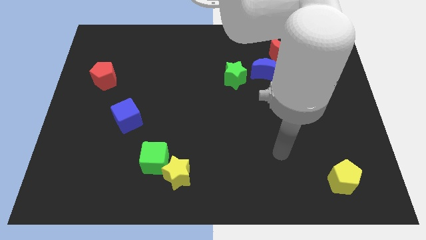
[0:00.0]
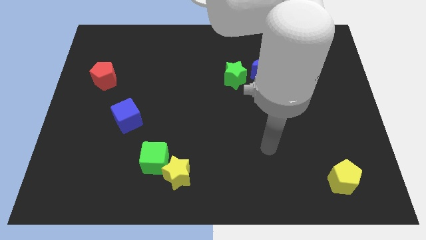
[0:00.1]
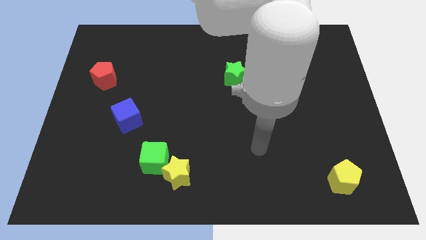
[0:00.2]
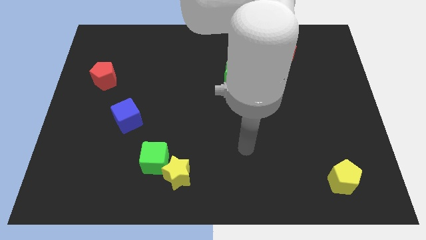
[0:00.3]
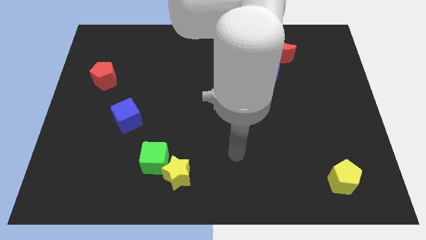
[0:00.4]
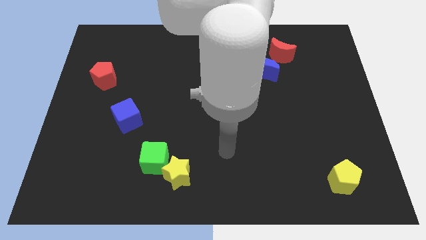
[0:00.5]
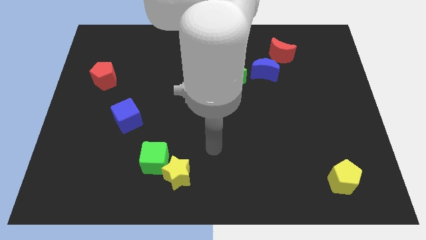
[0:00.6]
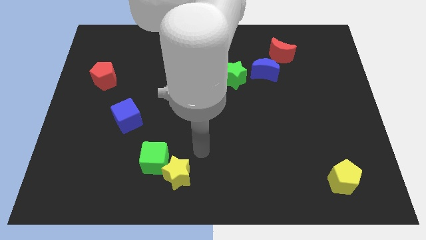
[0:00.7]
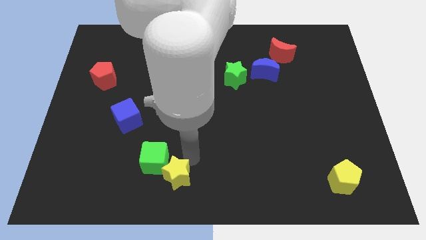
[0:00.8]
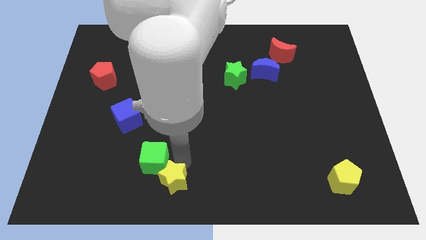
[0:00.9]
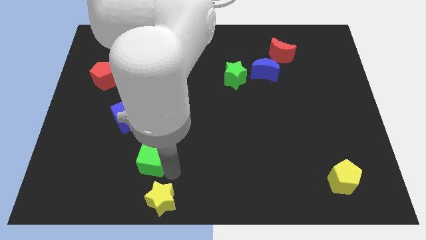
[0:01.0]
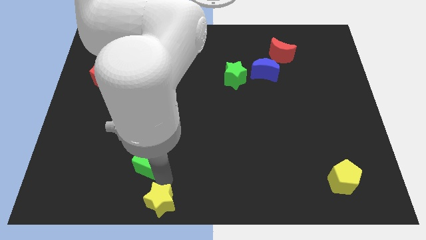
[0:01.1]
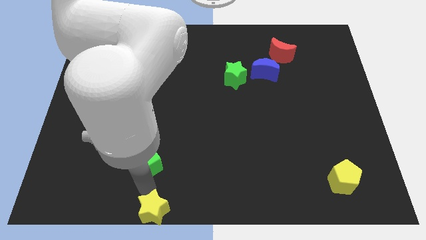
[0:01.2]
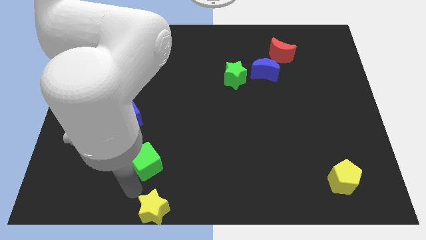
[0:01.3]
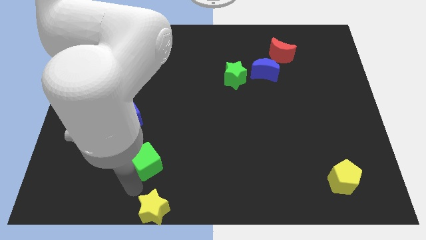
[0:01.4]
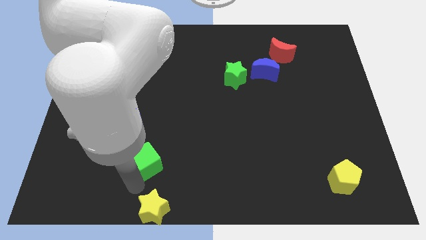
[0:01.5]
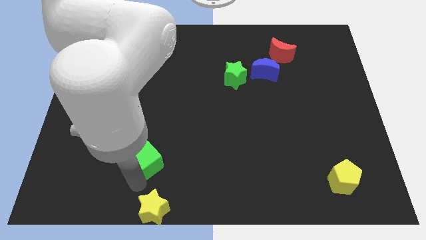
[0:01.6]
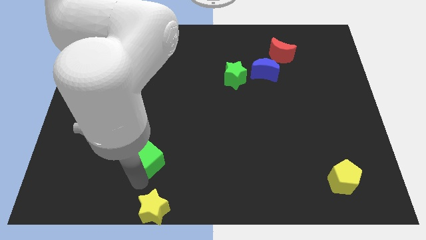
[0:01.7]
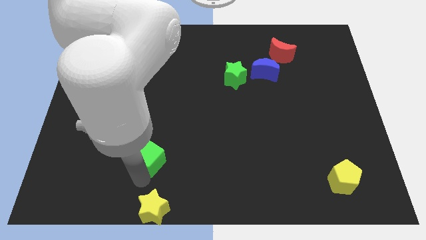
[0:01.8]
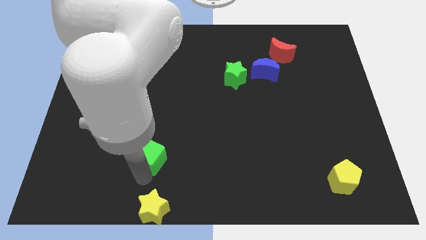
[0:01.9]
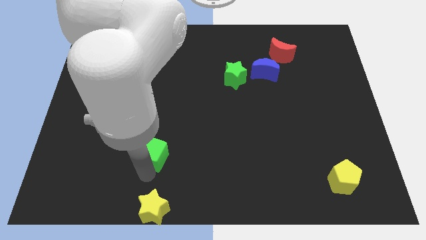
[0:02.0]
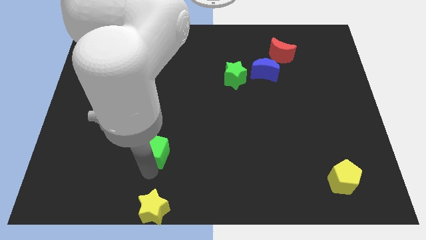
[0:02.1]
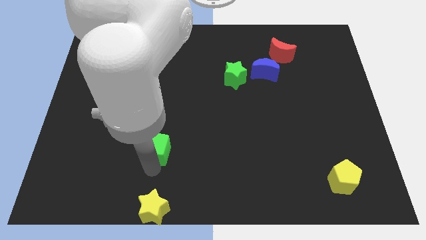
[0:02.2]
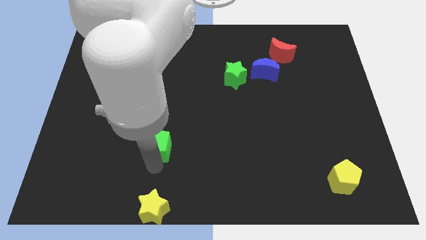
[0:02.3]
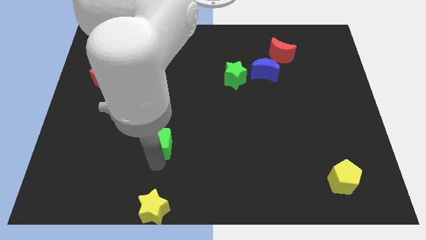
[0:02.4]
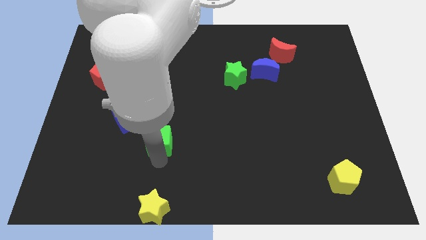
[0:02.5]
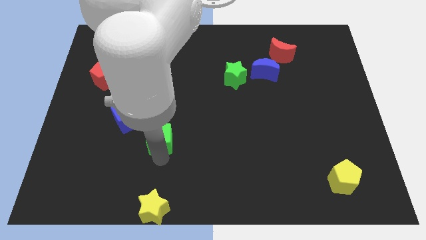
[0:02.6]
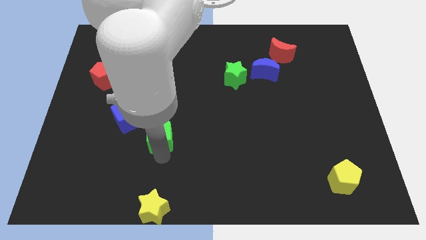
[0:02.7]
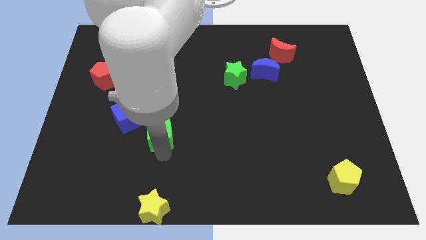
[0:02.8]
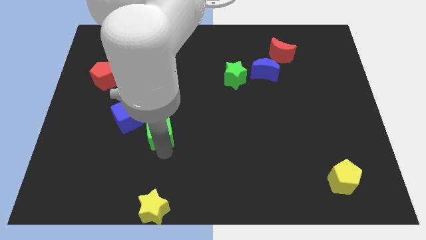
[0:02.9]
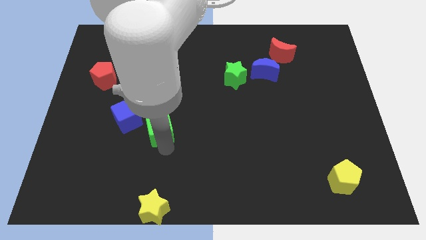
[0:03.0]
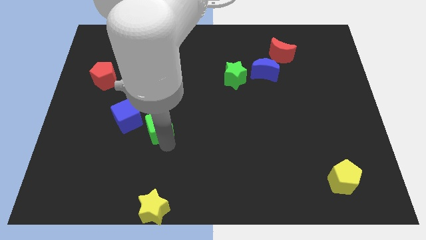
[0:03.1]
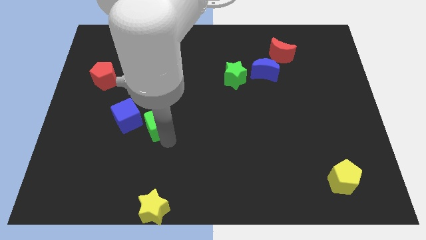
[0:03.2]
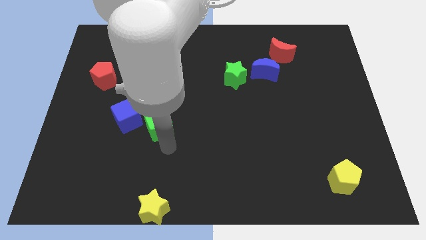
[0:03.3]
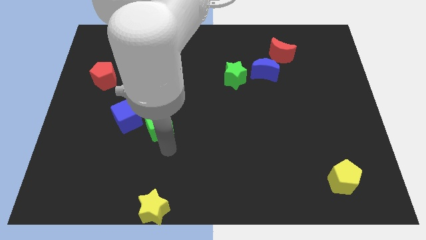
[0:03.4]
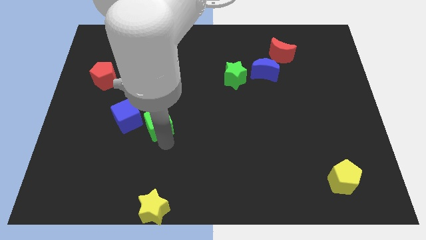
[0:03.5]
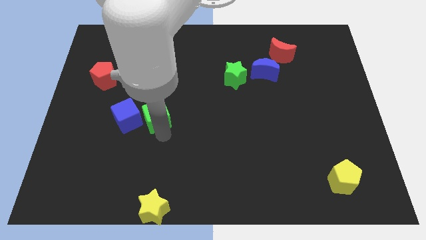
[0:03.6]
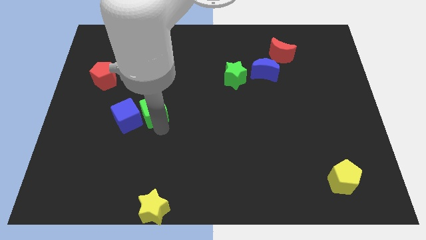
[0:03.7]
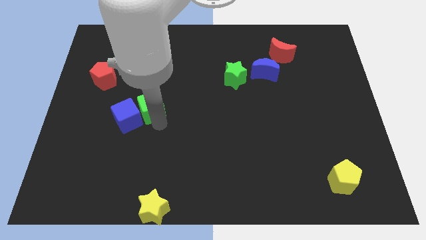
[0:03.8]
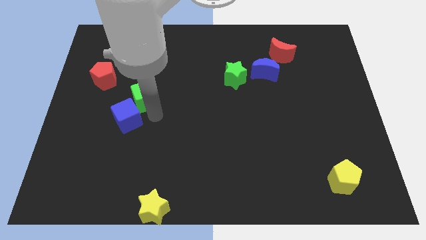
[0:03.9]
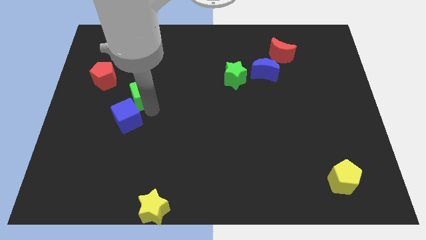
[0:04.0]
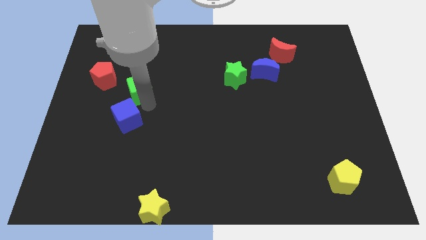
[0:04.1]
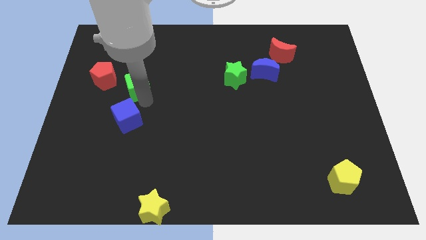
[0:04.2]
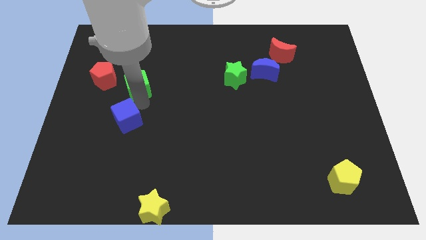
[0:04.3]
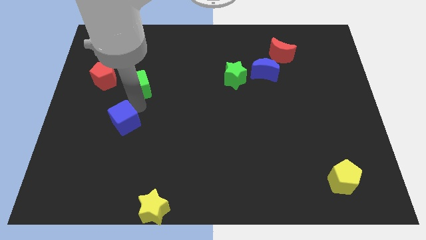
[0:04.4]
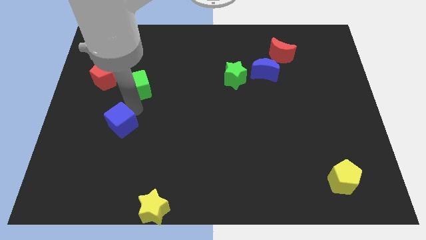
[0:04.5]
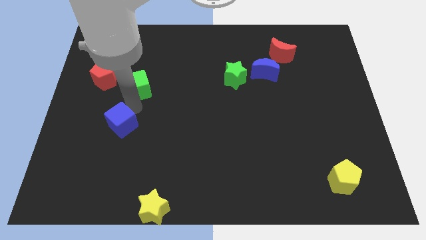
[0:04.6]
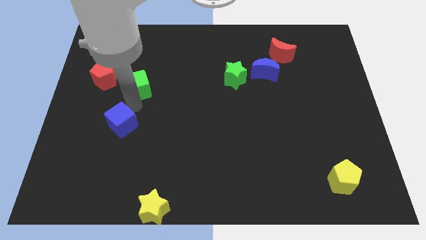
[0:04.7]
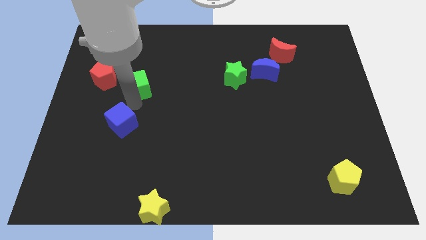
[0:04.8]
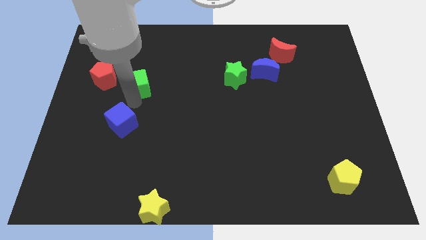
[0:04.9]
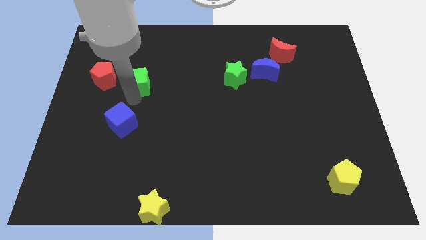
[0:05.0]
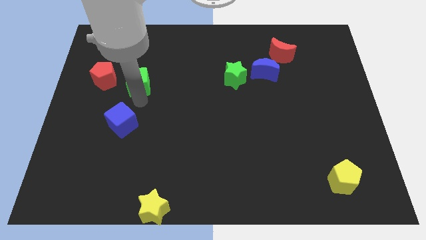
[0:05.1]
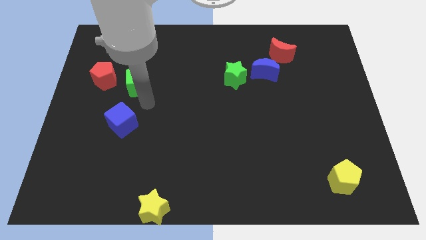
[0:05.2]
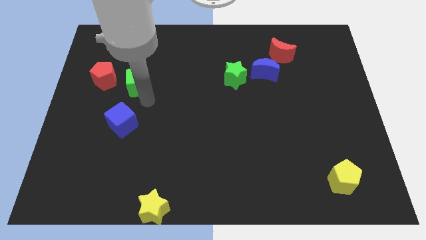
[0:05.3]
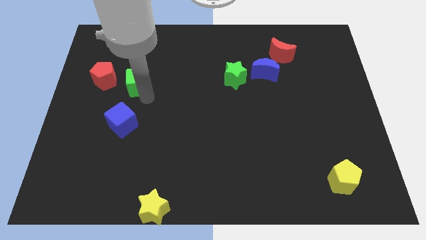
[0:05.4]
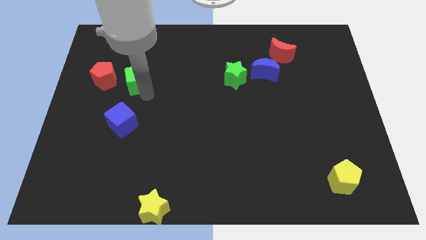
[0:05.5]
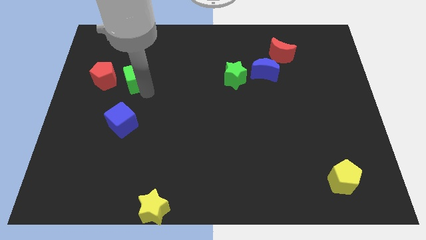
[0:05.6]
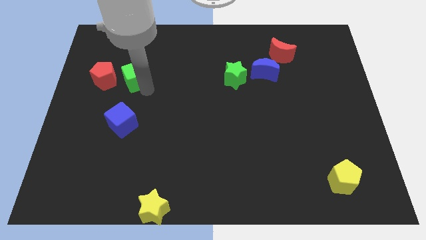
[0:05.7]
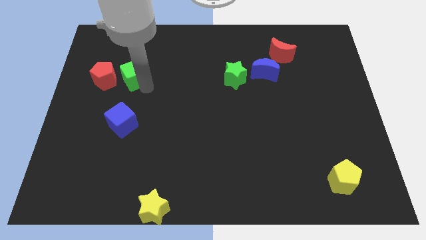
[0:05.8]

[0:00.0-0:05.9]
slide the green cube diagonally up and to the right of the red pentagon

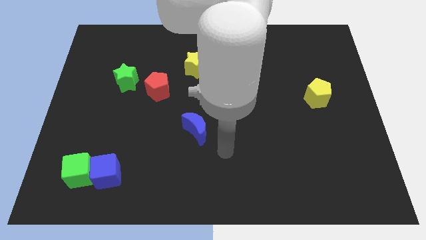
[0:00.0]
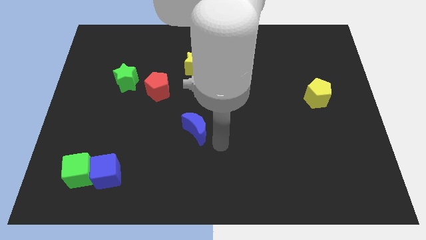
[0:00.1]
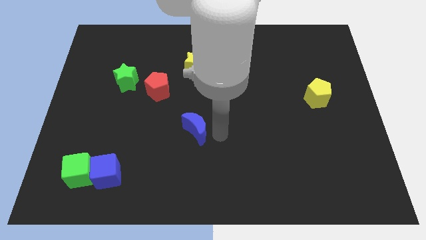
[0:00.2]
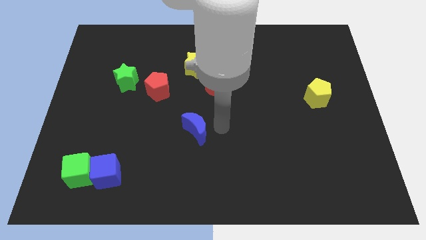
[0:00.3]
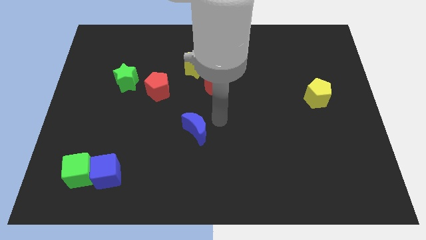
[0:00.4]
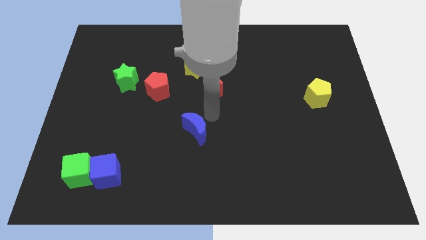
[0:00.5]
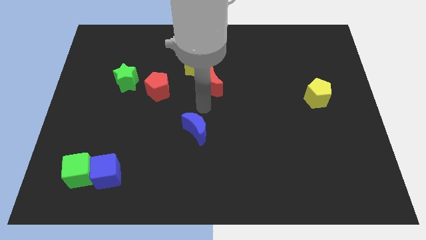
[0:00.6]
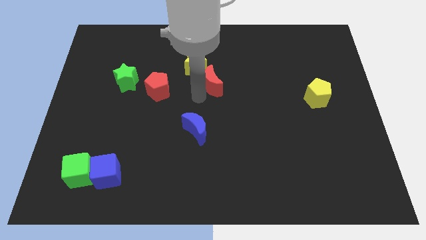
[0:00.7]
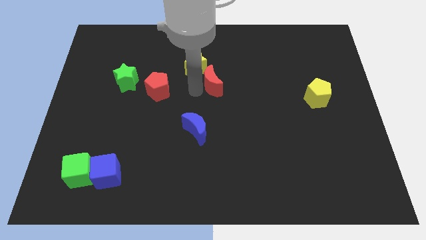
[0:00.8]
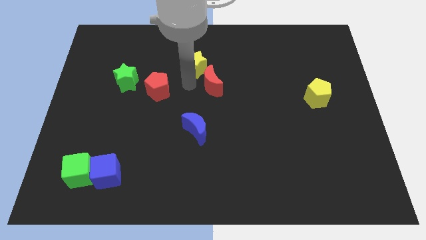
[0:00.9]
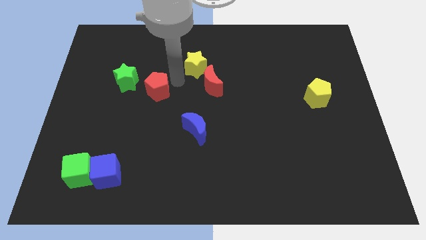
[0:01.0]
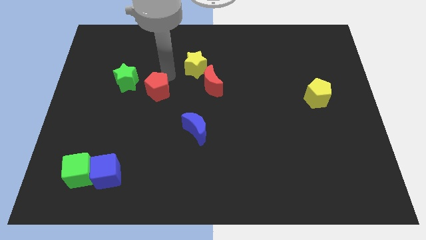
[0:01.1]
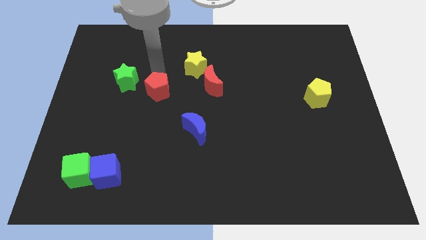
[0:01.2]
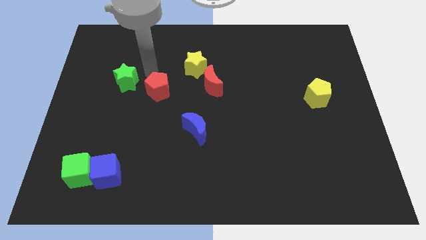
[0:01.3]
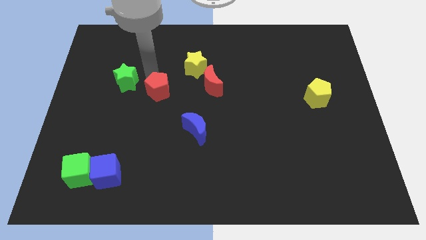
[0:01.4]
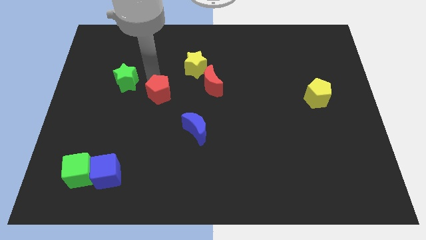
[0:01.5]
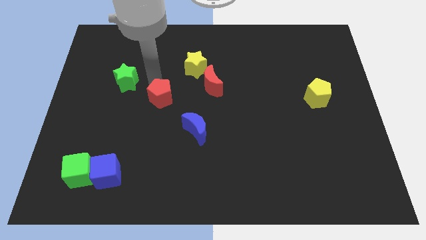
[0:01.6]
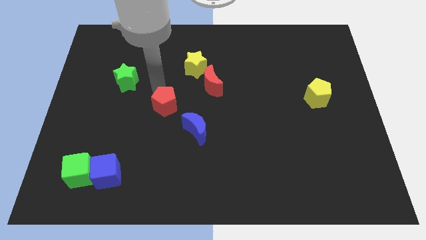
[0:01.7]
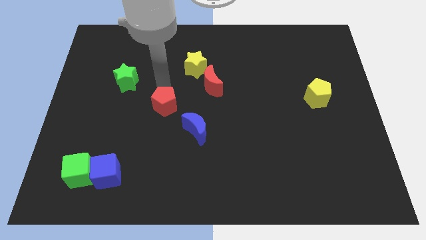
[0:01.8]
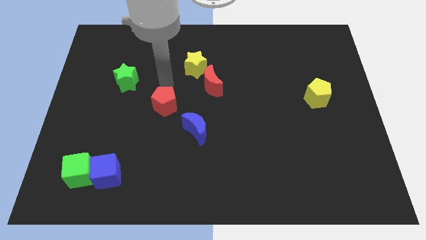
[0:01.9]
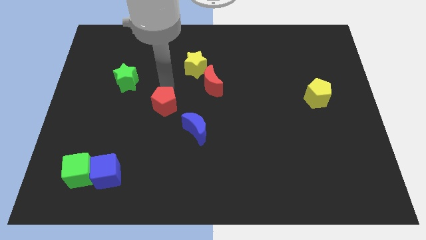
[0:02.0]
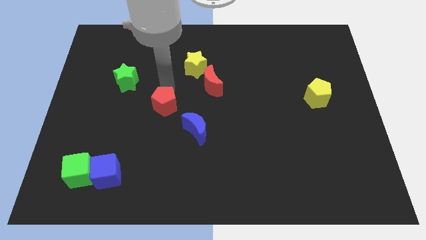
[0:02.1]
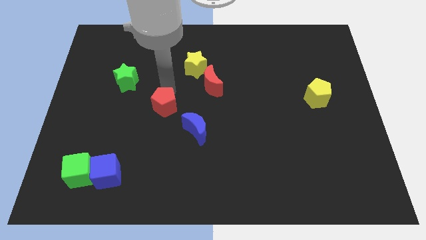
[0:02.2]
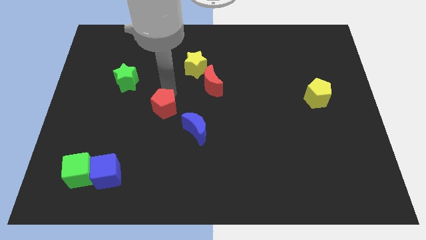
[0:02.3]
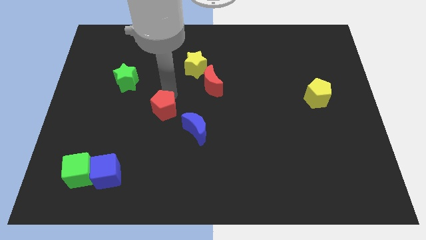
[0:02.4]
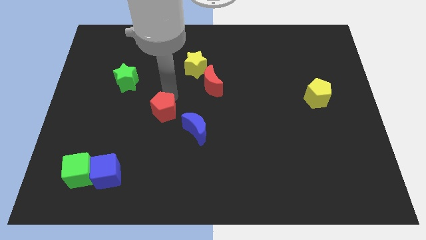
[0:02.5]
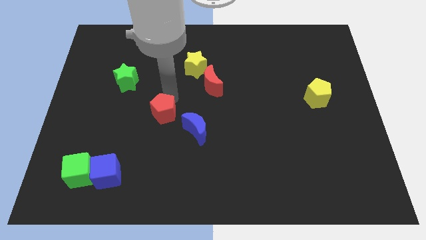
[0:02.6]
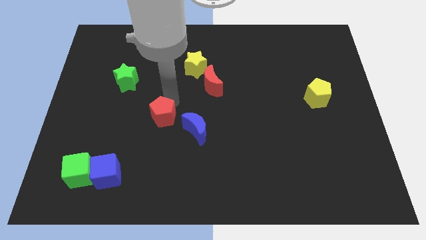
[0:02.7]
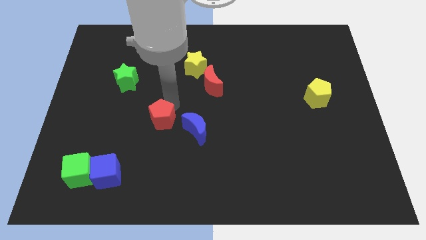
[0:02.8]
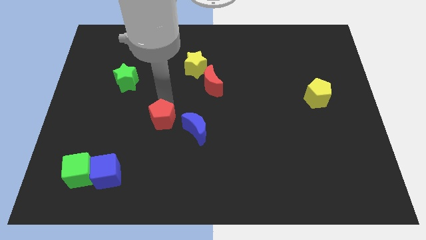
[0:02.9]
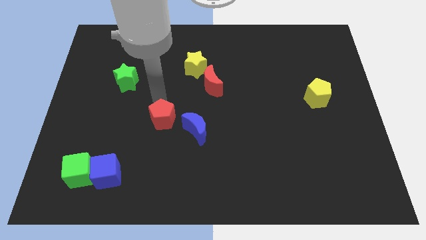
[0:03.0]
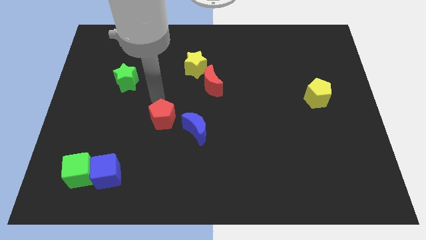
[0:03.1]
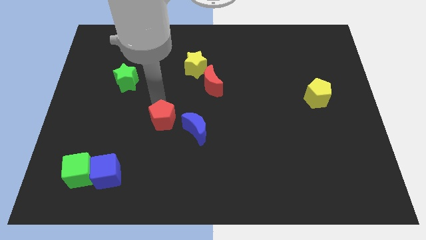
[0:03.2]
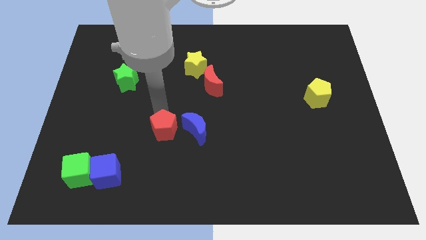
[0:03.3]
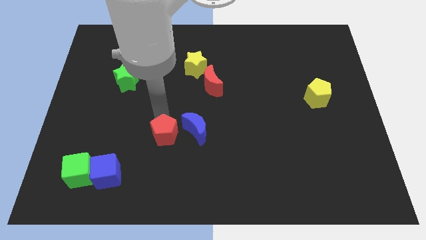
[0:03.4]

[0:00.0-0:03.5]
put the red pentagon diagonally down and to the left of the blue moon
